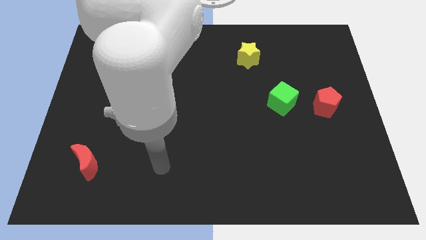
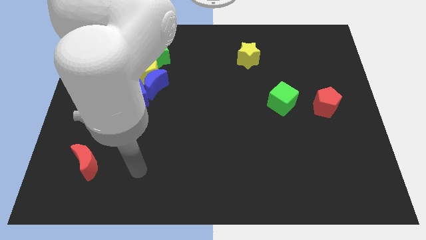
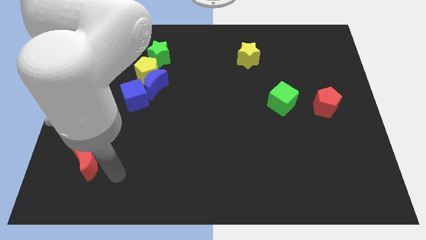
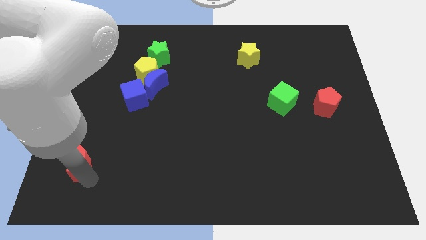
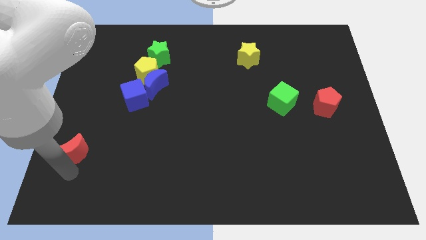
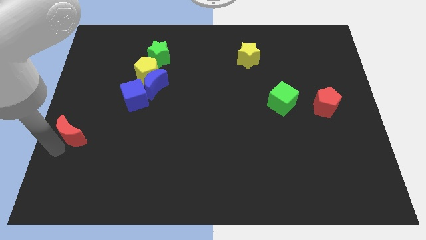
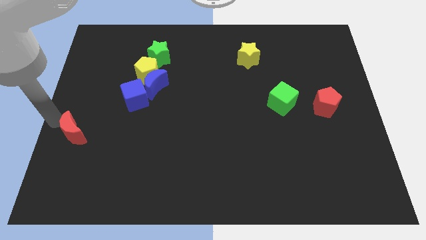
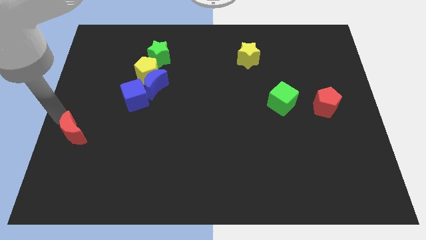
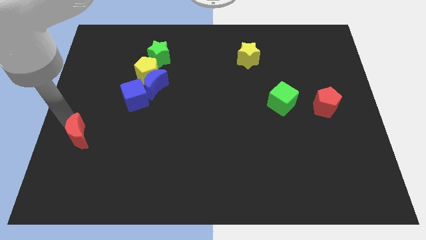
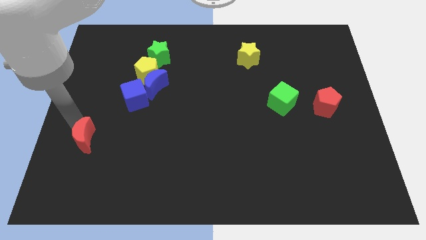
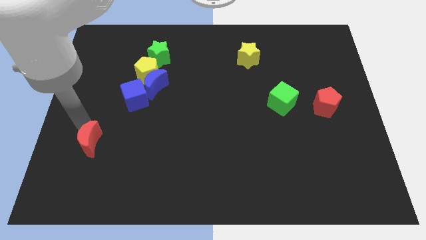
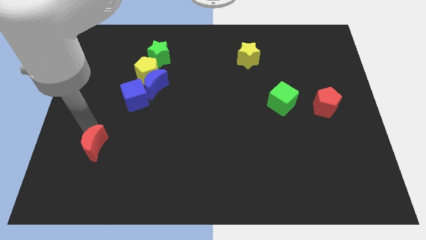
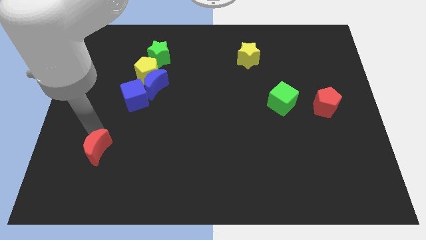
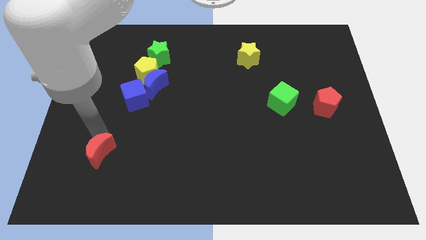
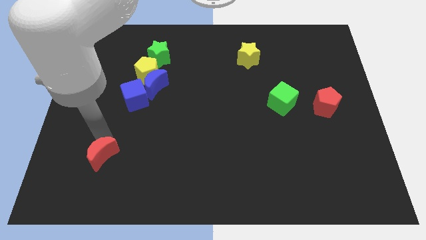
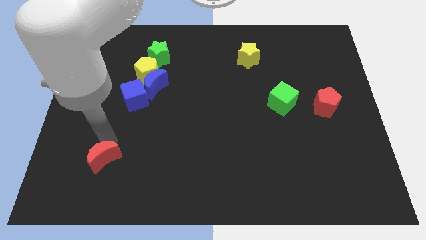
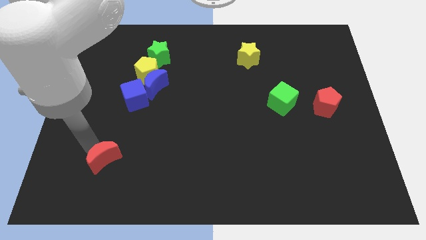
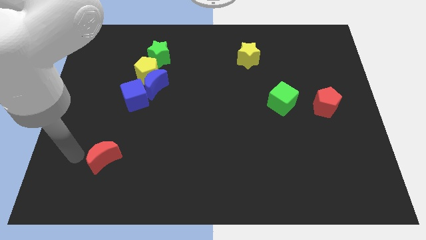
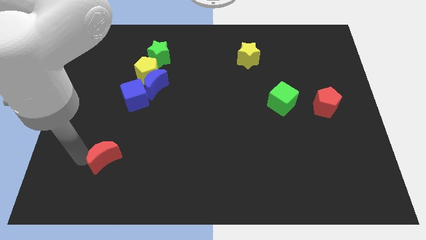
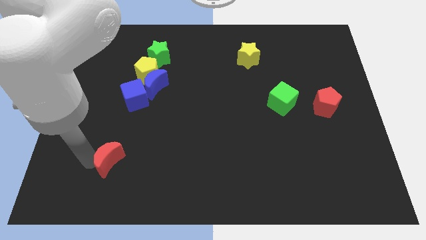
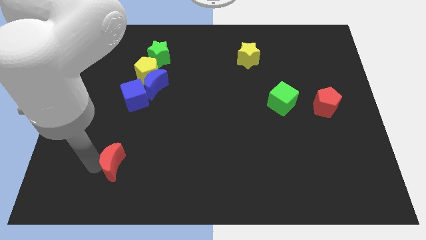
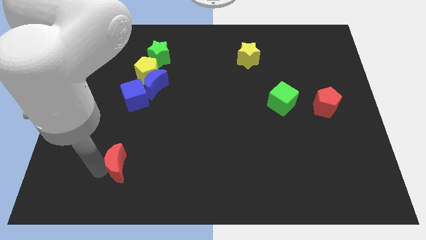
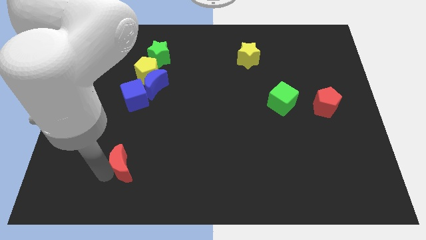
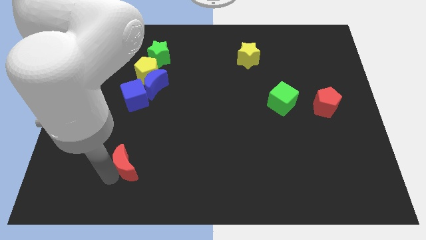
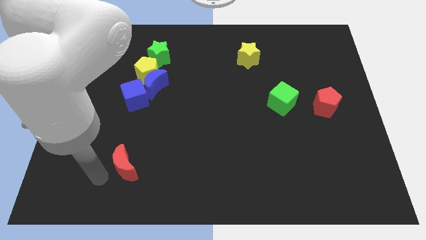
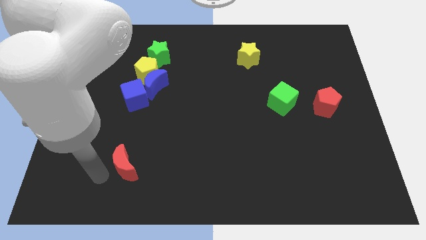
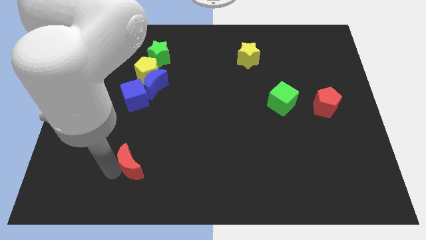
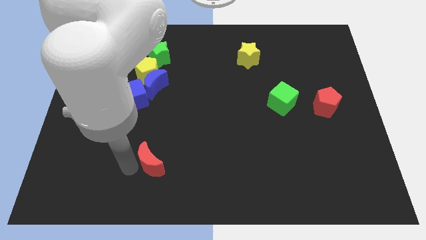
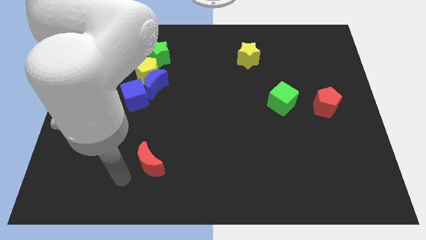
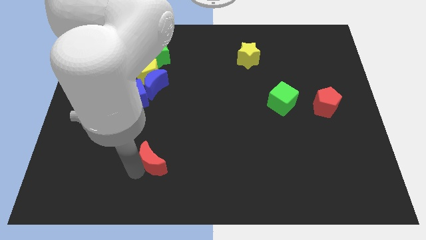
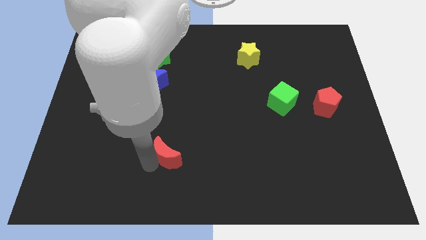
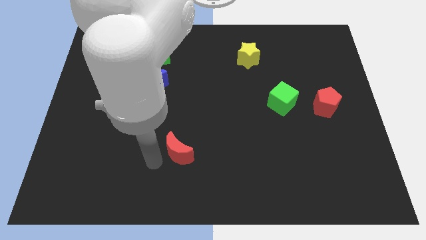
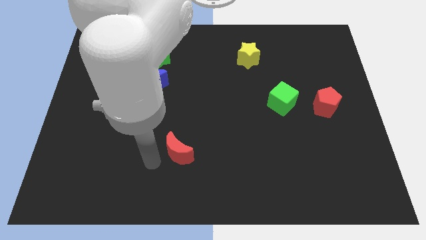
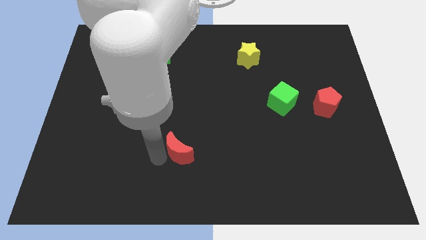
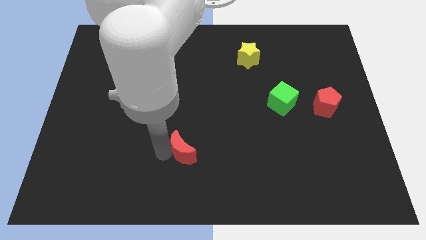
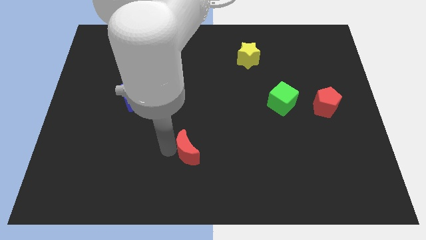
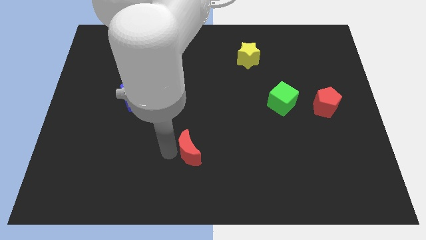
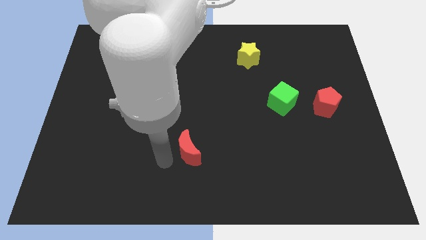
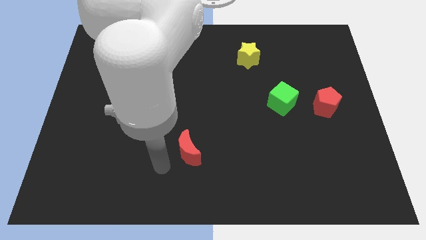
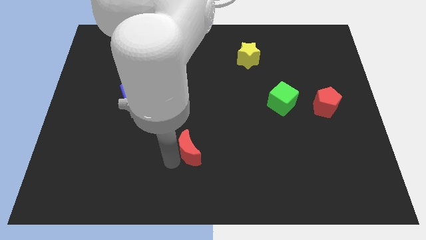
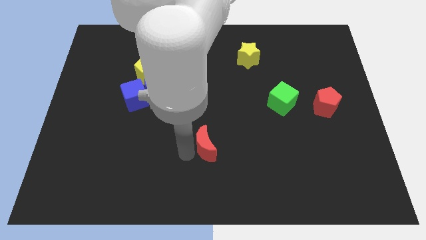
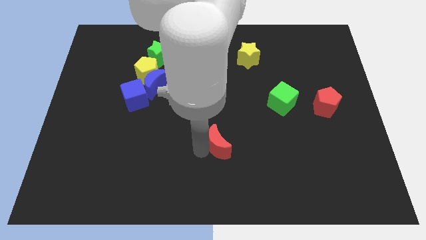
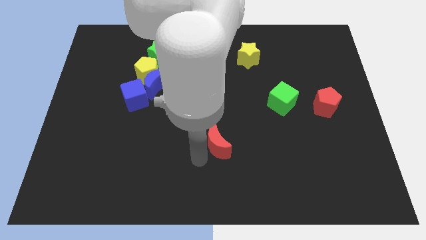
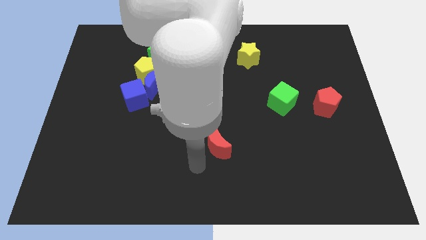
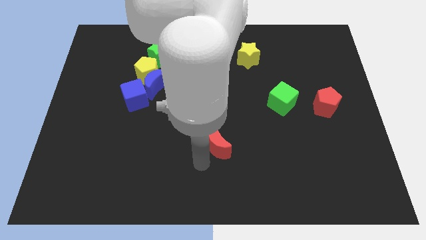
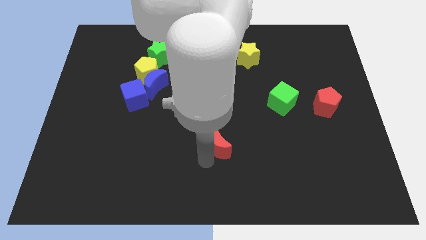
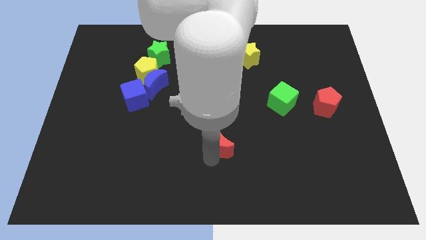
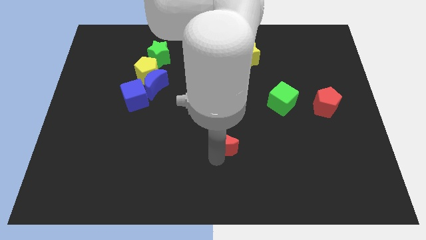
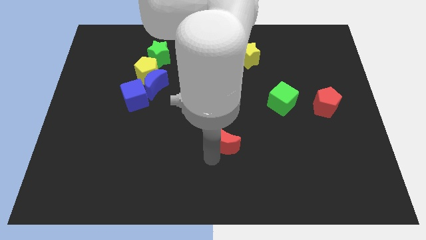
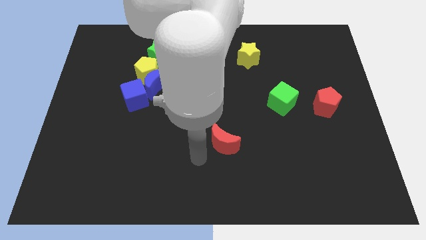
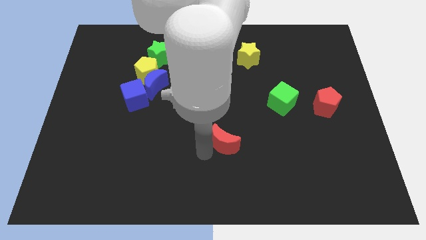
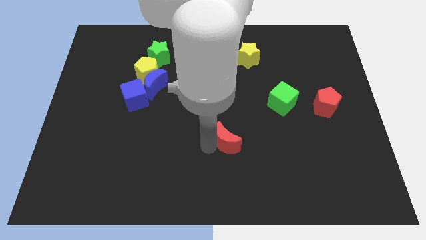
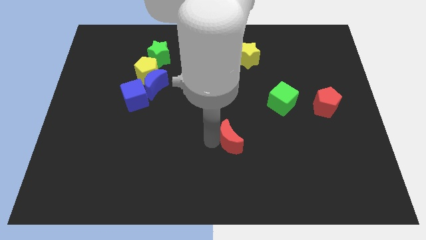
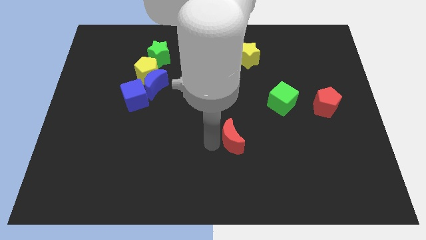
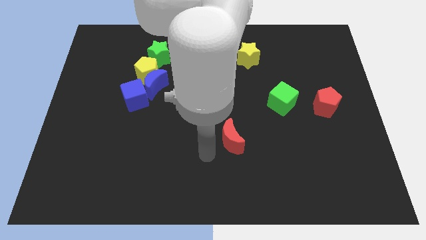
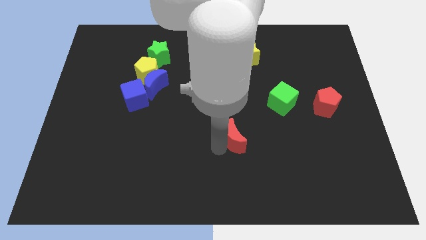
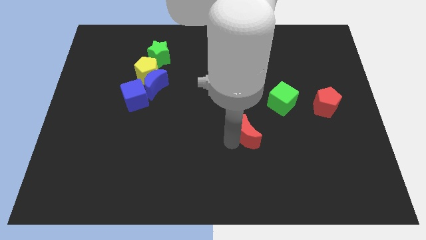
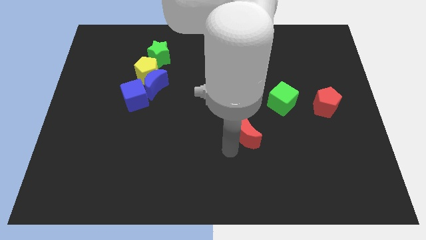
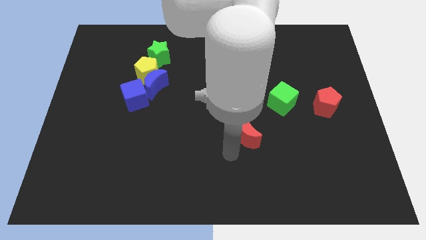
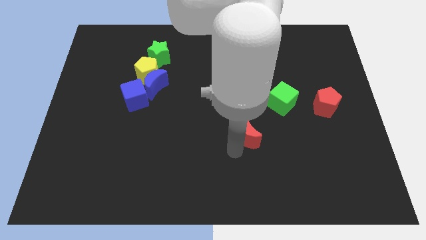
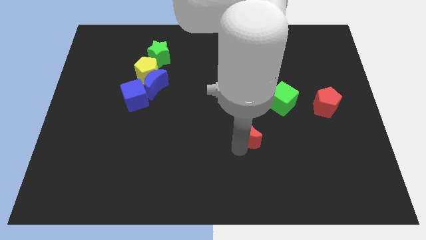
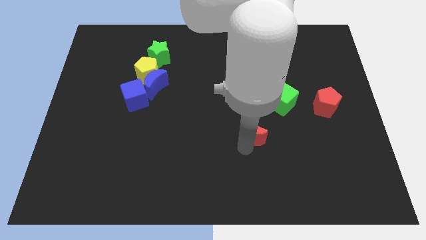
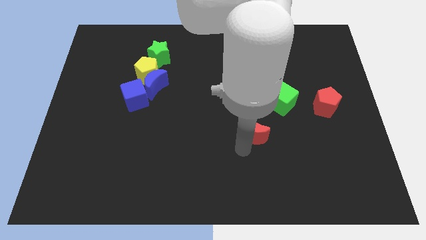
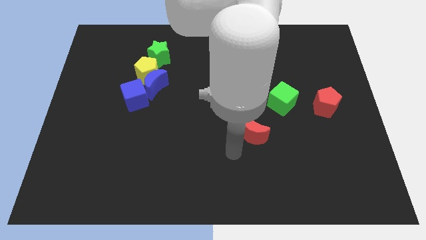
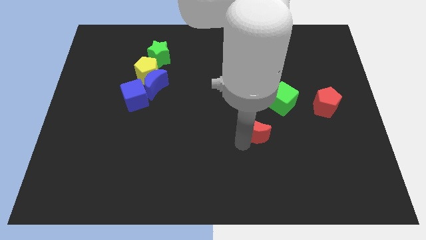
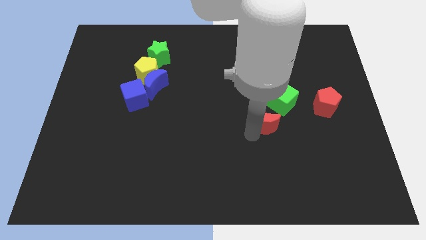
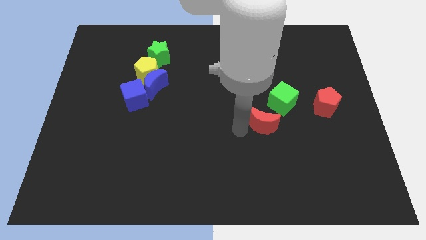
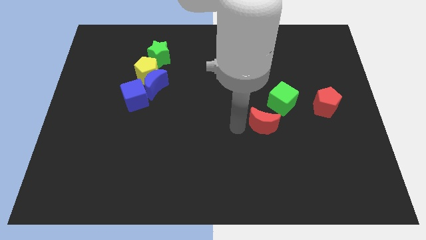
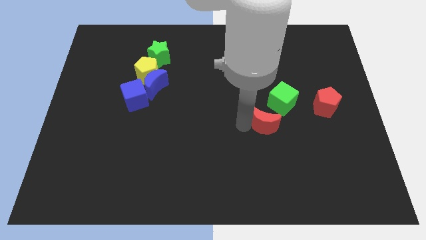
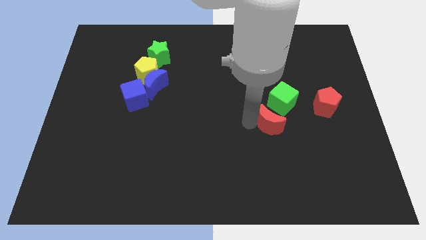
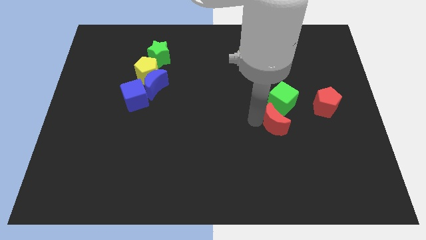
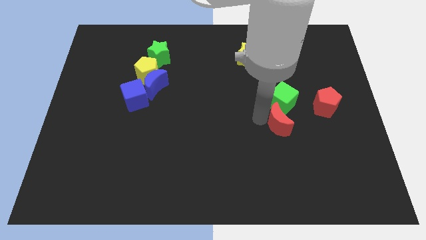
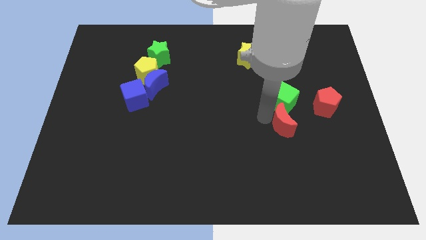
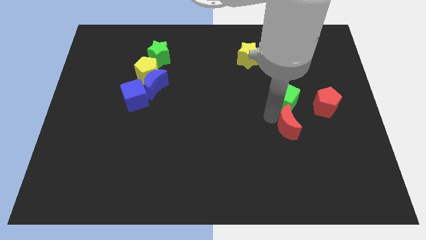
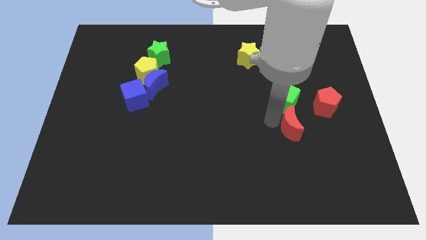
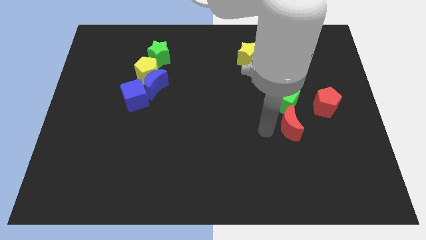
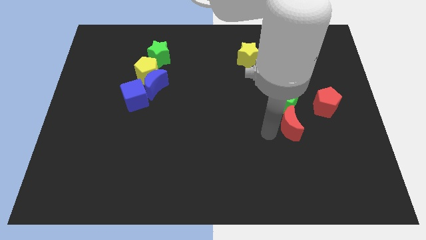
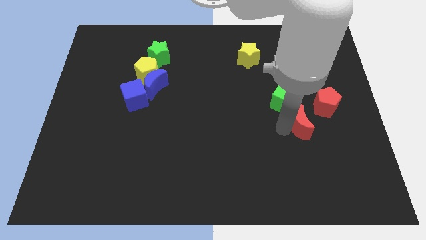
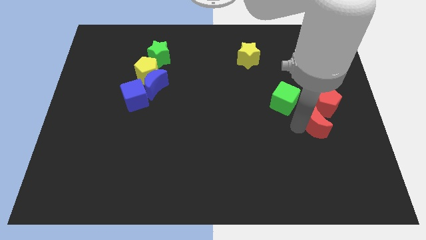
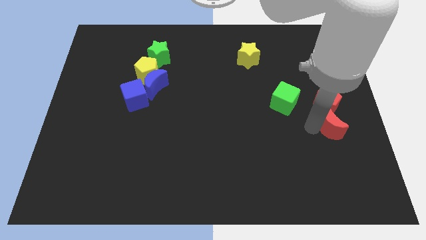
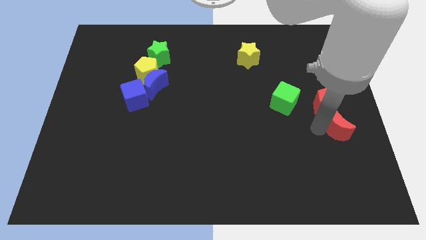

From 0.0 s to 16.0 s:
slide the red moon to the right side
